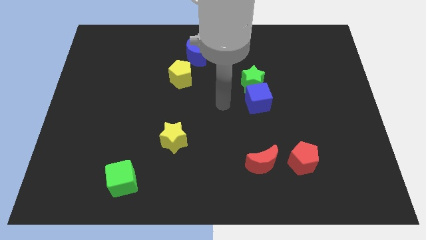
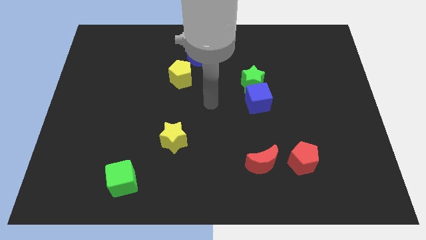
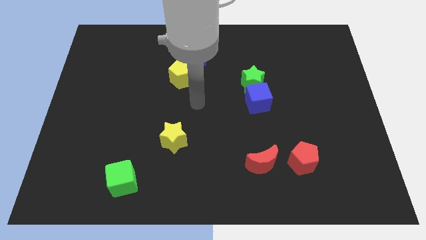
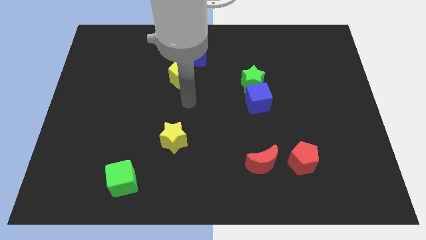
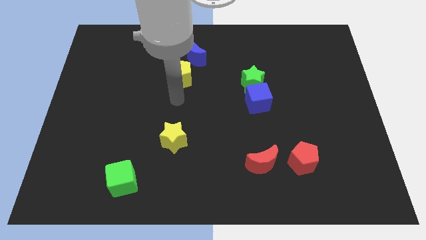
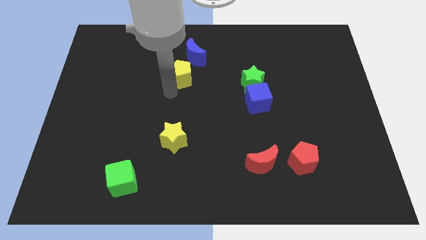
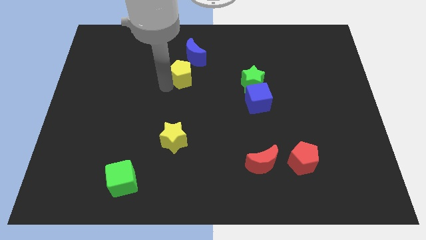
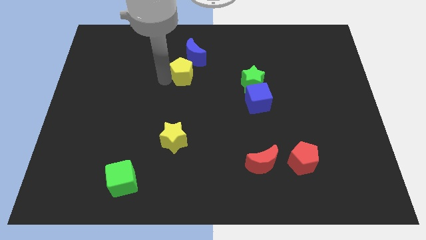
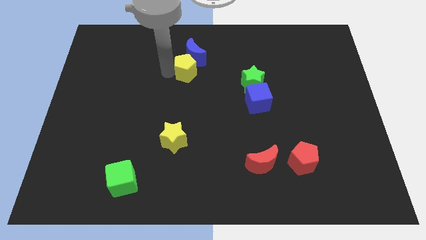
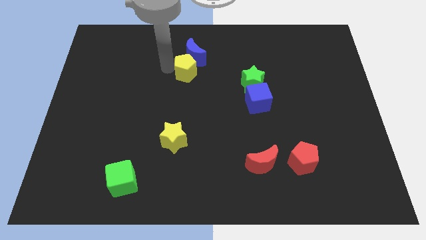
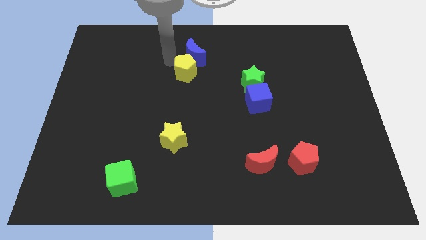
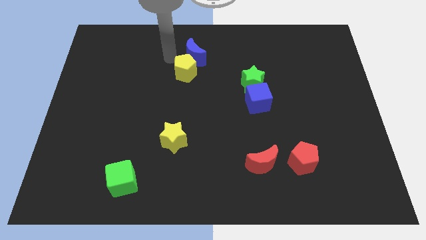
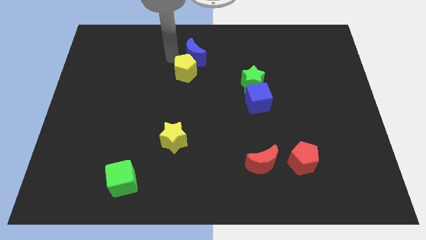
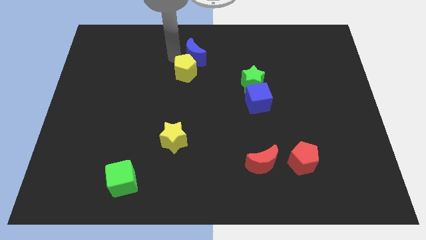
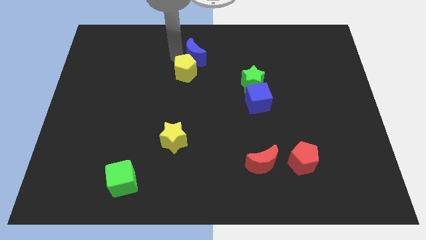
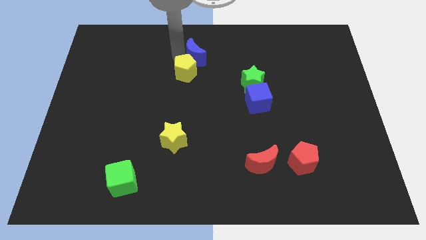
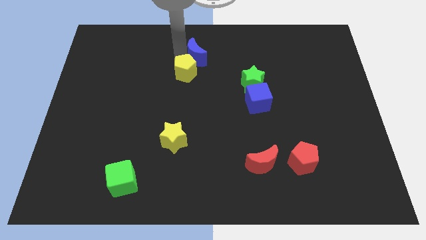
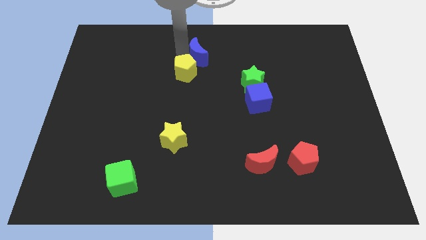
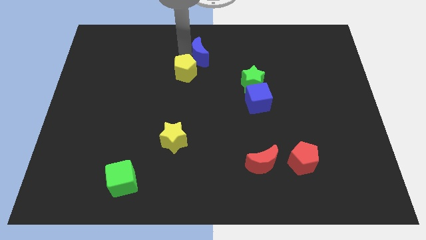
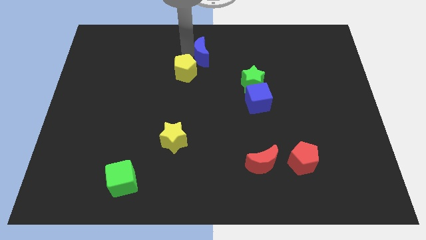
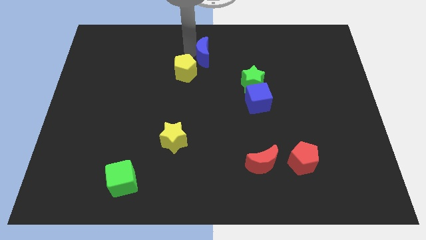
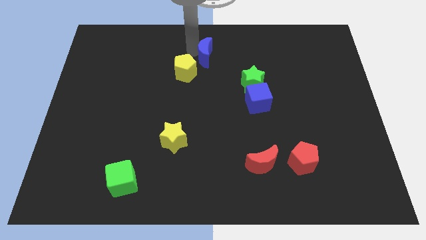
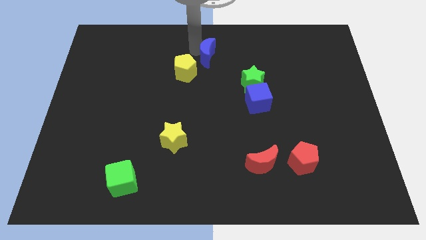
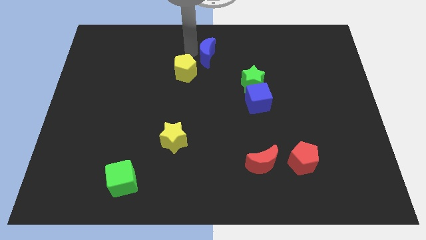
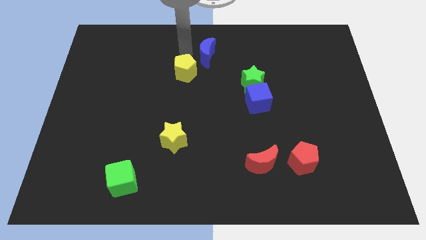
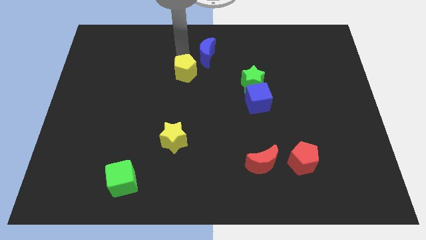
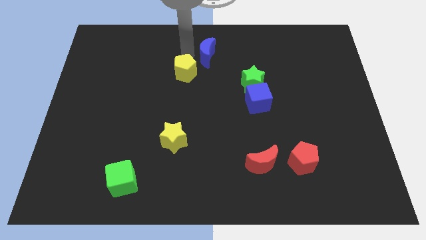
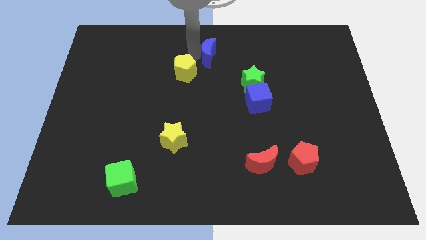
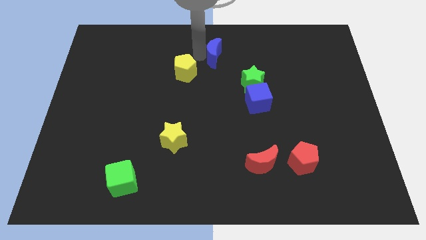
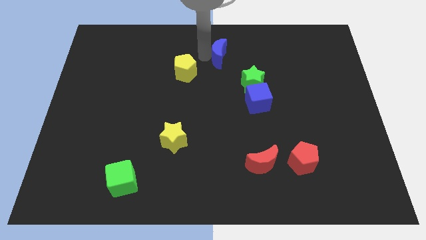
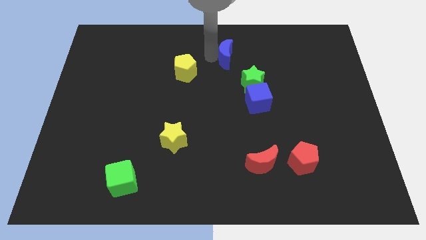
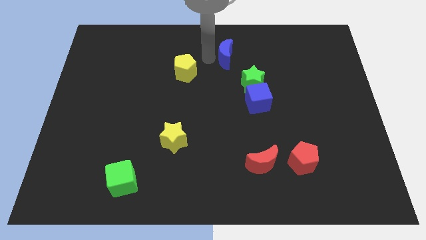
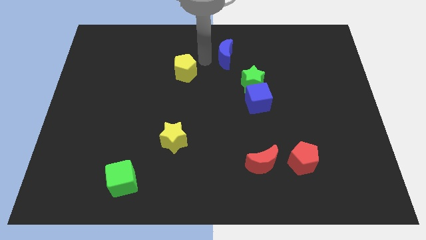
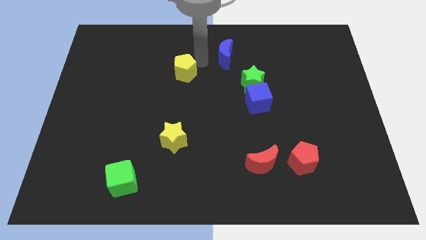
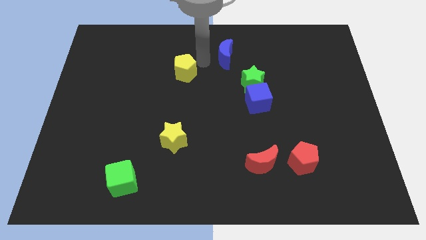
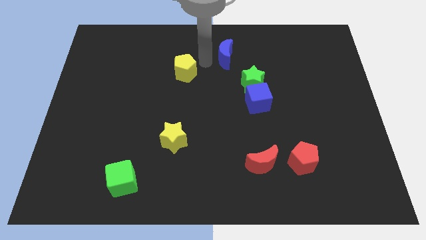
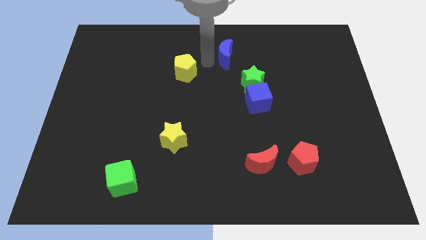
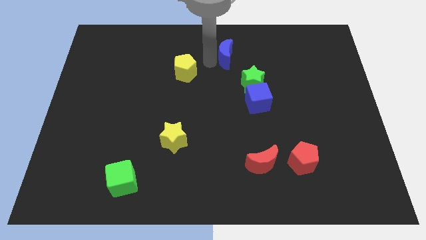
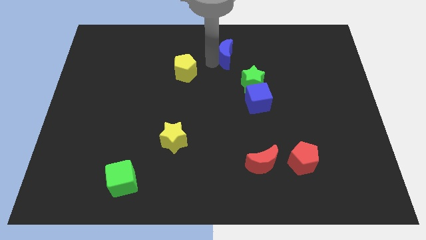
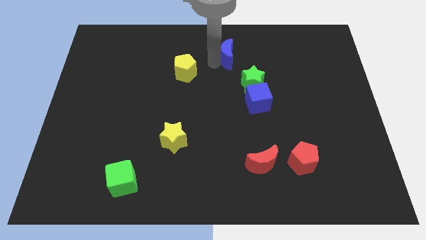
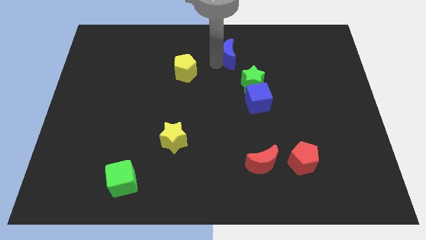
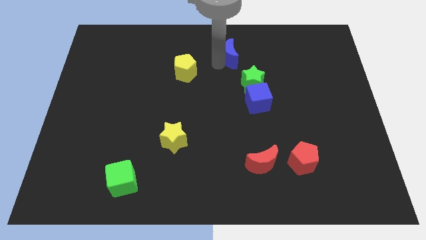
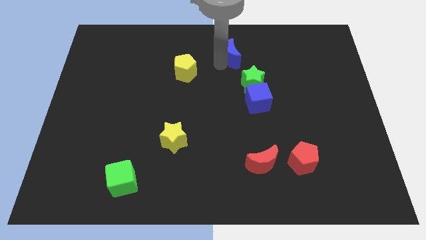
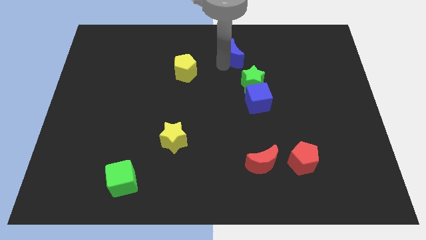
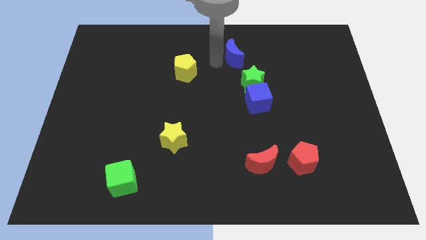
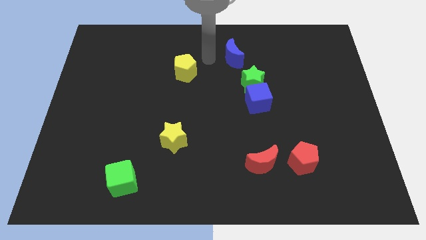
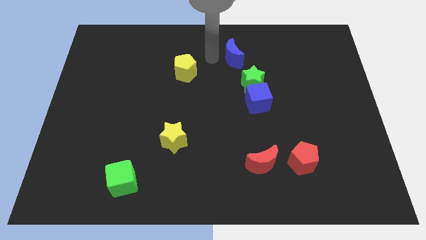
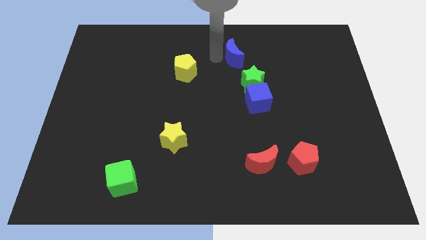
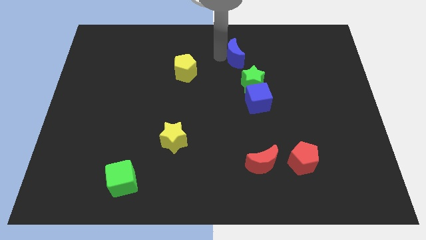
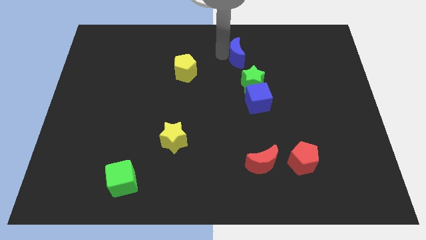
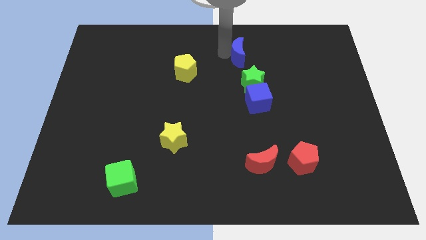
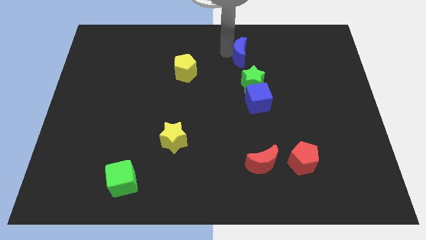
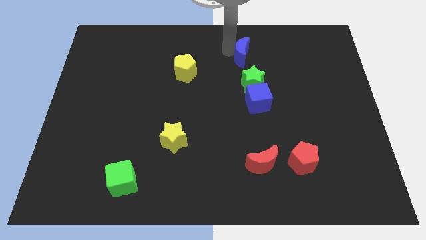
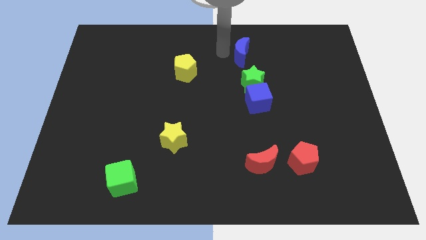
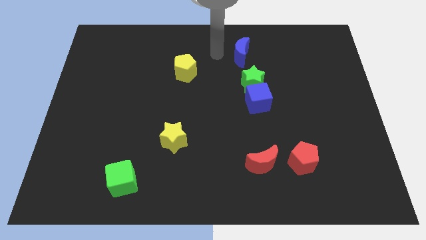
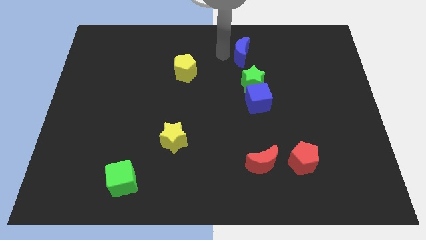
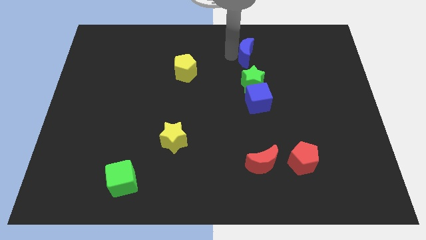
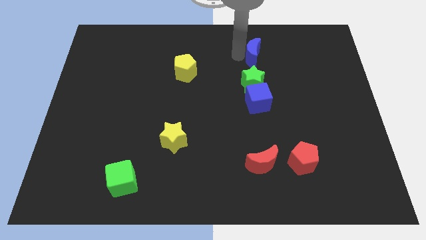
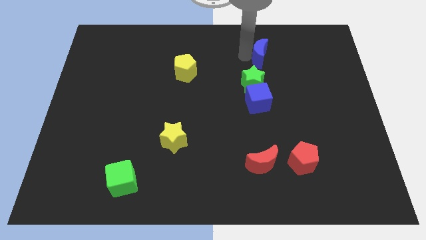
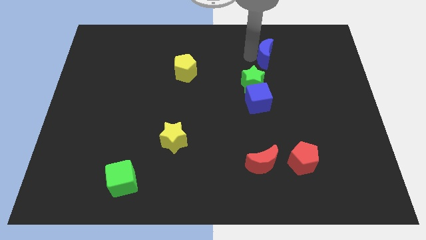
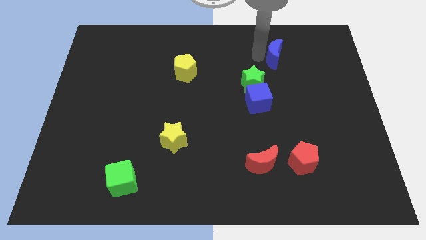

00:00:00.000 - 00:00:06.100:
move the blue moon to the right

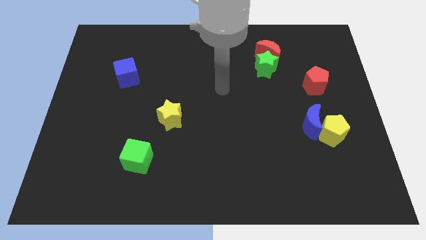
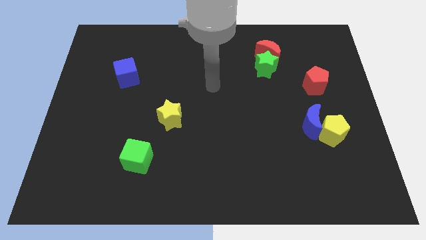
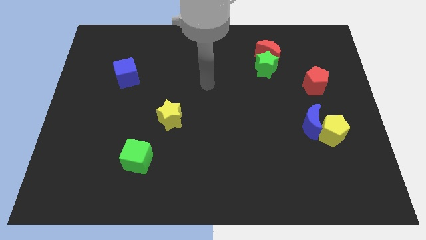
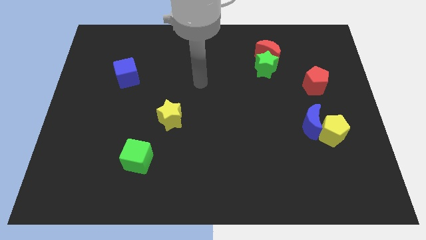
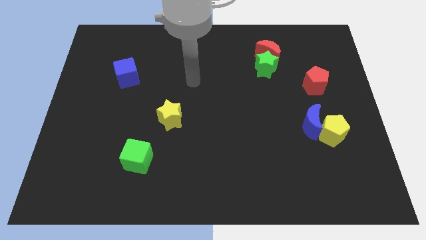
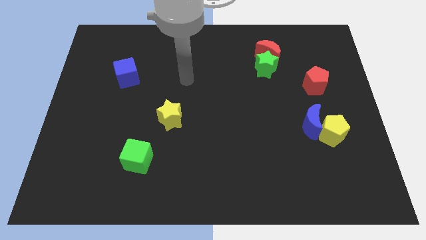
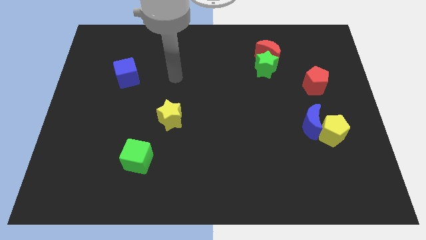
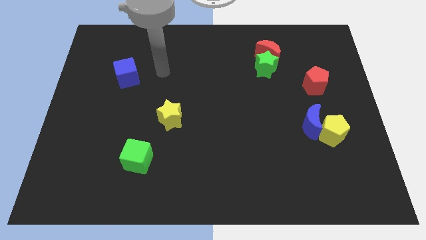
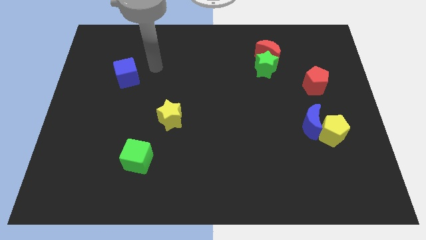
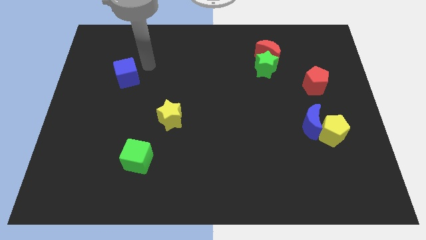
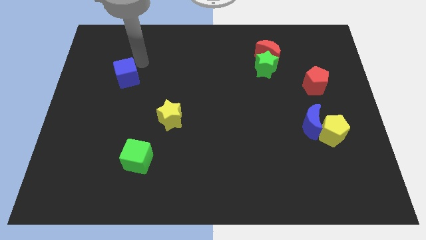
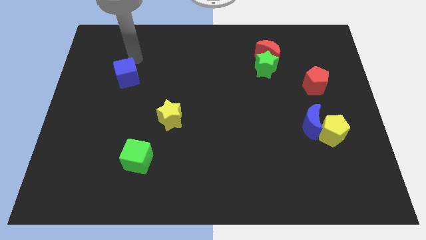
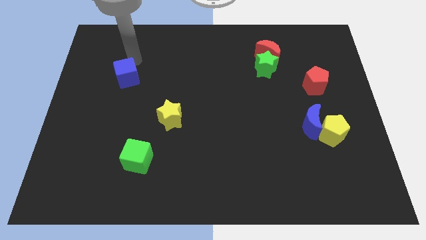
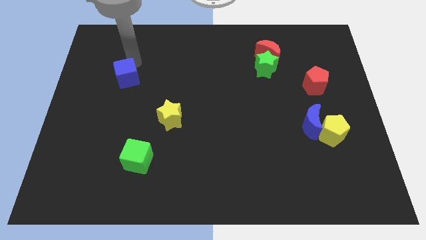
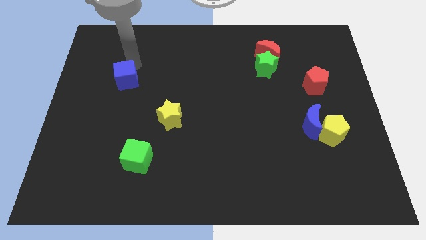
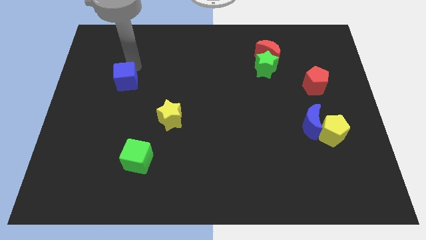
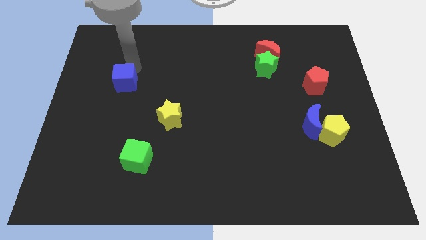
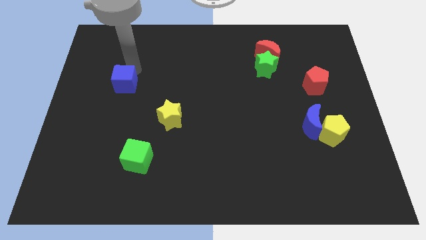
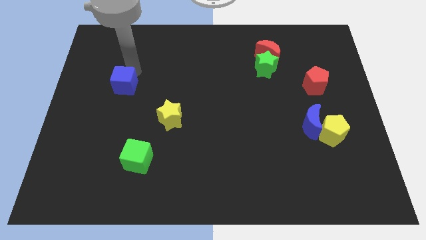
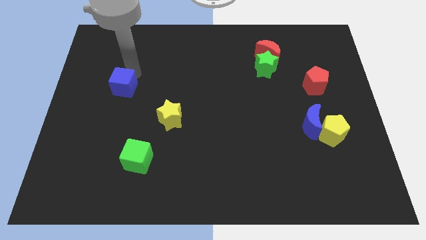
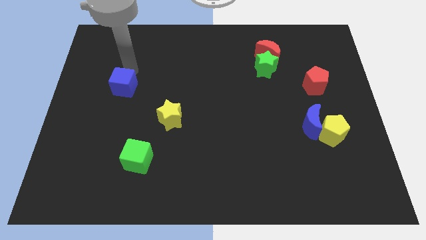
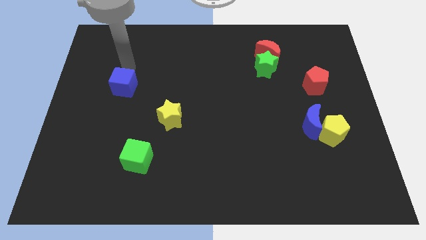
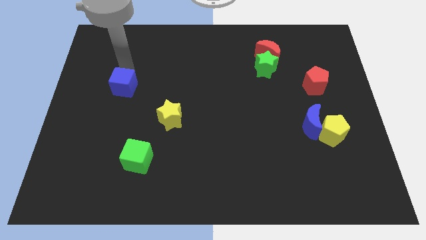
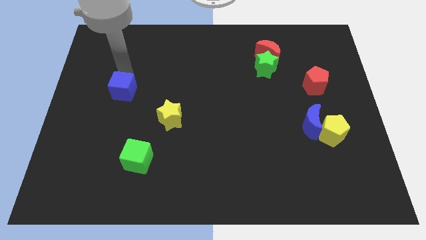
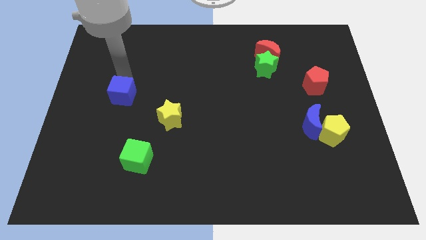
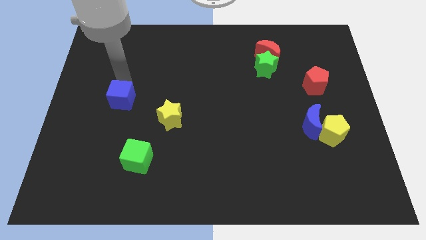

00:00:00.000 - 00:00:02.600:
slightly push the blue cube downwards

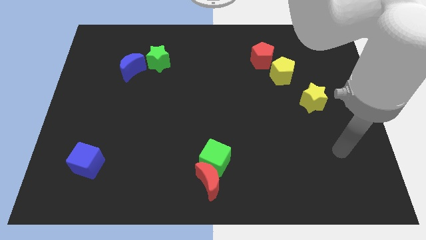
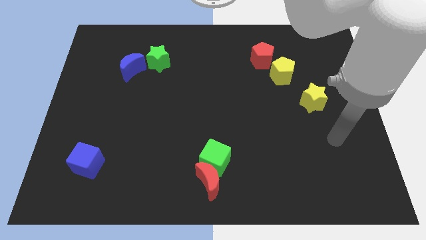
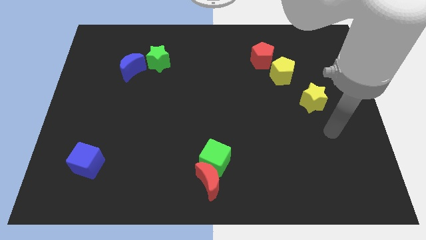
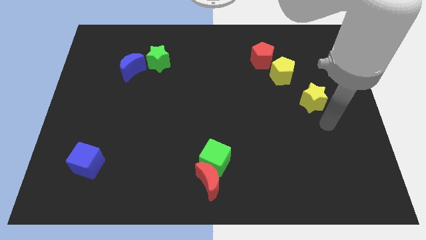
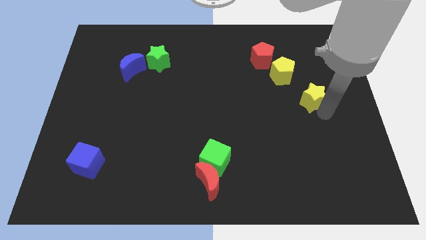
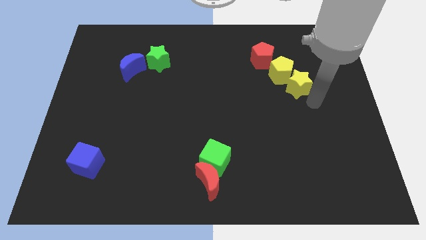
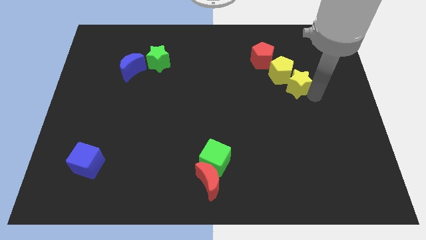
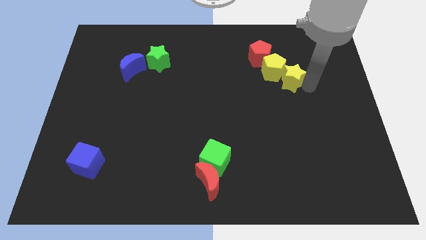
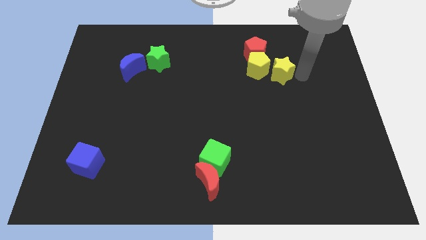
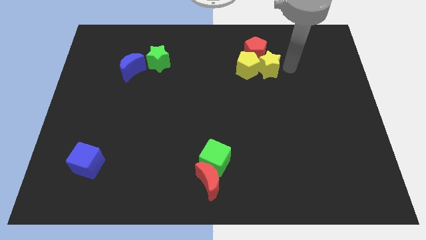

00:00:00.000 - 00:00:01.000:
slightly move the yellow pentagon left
